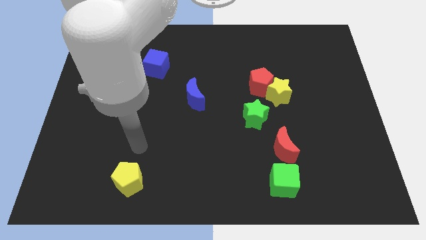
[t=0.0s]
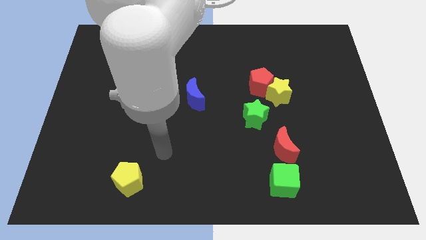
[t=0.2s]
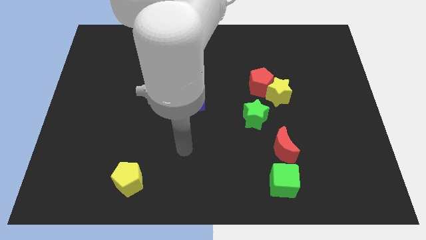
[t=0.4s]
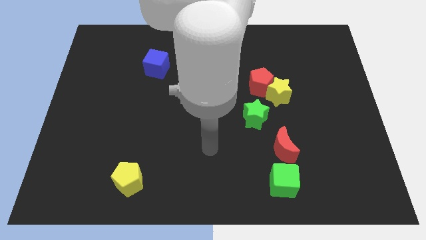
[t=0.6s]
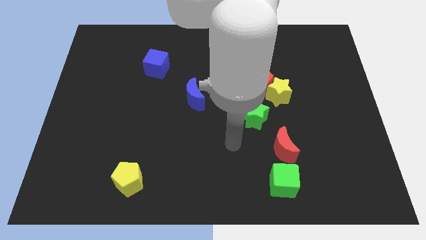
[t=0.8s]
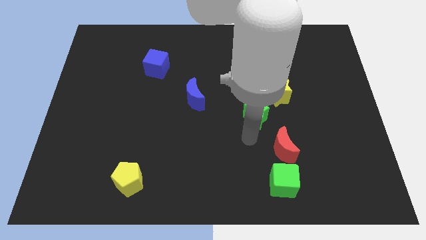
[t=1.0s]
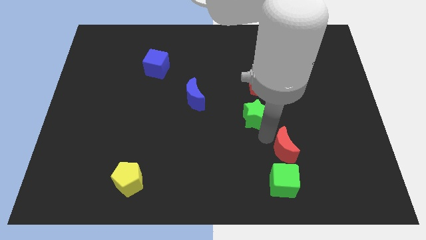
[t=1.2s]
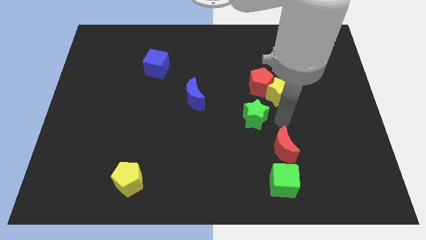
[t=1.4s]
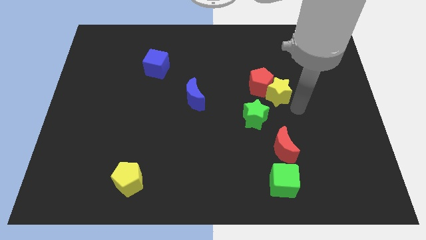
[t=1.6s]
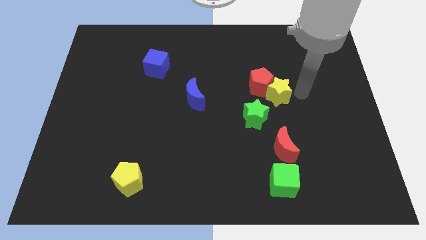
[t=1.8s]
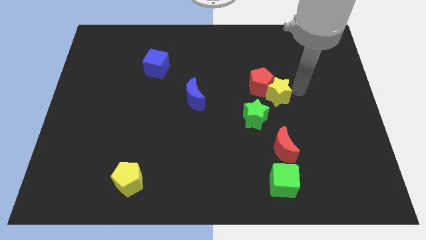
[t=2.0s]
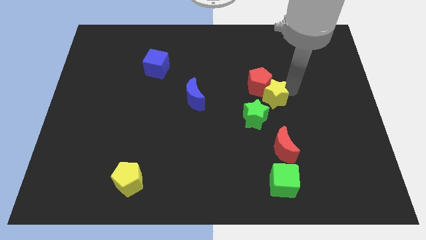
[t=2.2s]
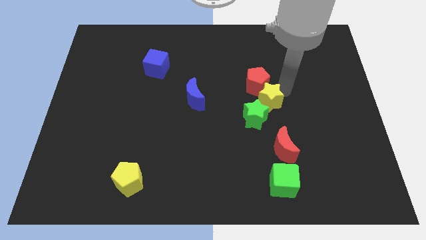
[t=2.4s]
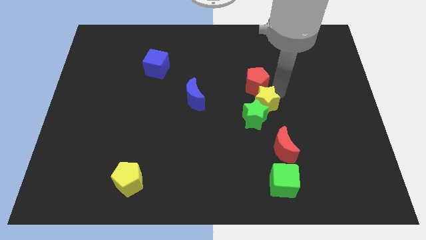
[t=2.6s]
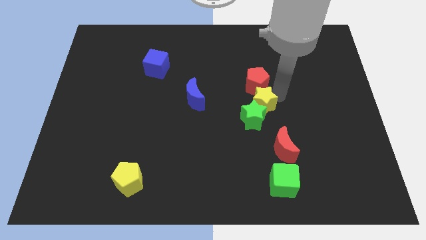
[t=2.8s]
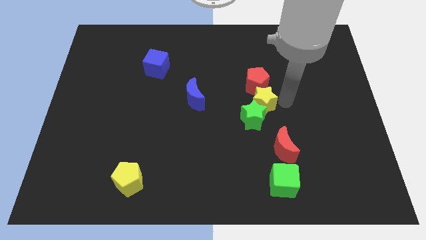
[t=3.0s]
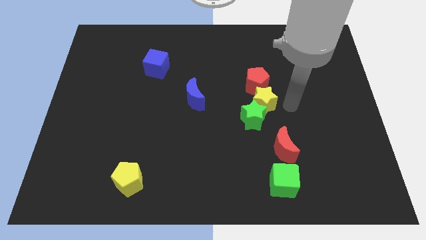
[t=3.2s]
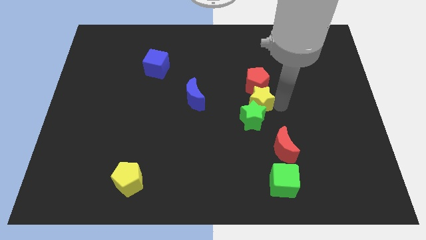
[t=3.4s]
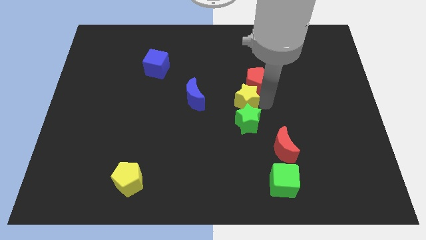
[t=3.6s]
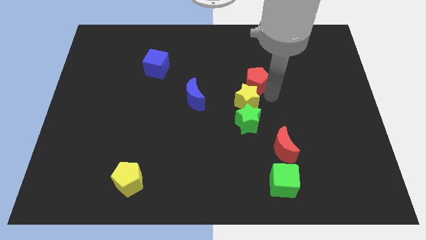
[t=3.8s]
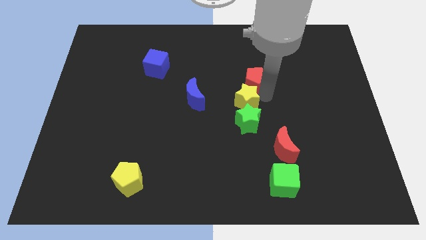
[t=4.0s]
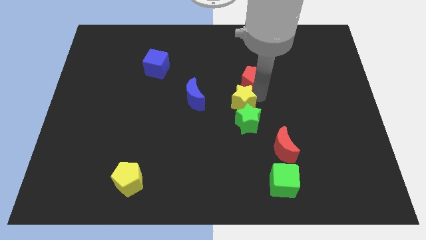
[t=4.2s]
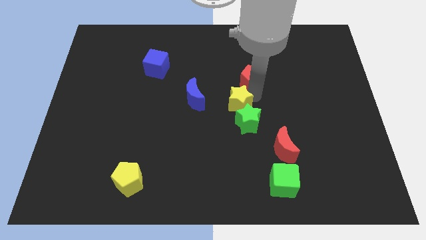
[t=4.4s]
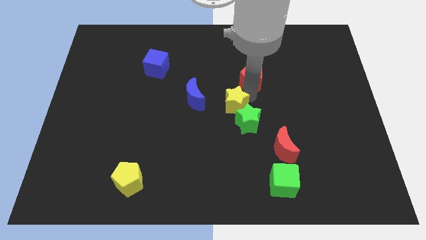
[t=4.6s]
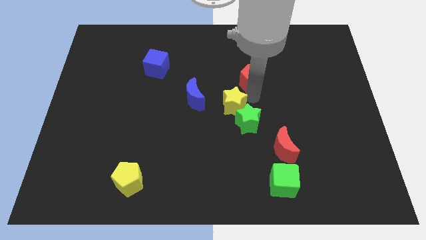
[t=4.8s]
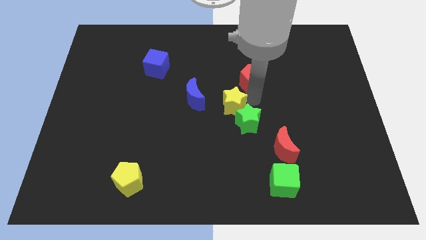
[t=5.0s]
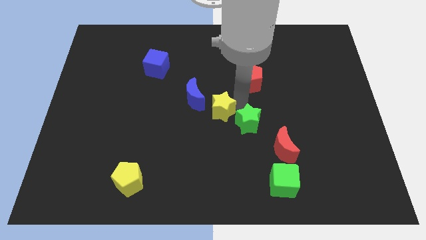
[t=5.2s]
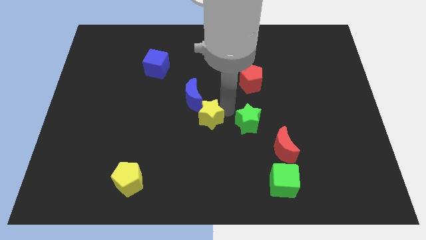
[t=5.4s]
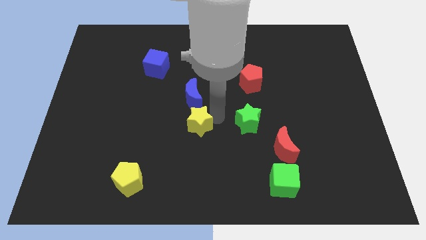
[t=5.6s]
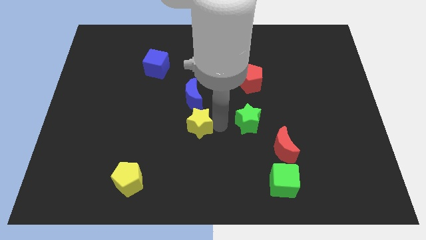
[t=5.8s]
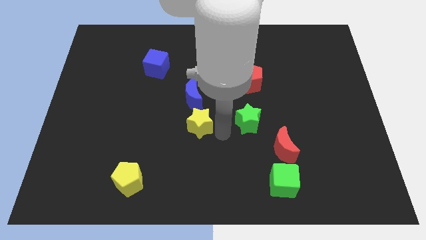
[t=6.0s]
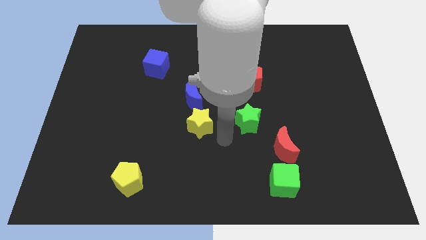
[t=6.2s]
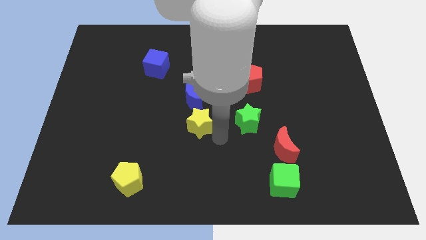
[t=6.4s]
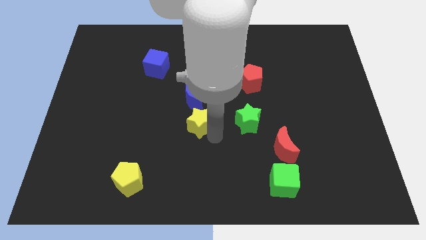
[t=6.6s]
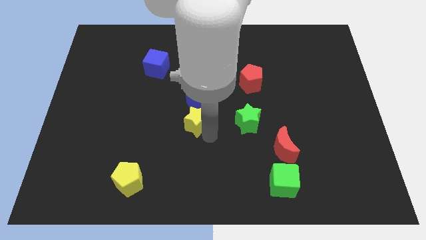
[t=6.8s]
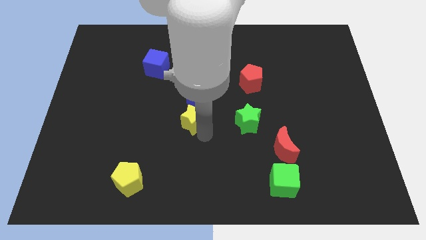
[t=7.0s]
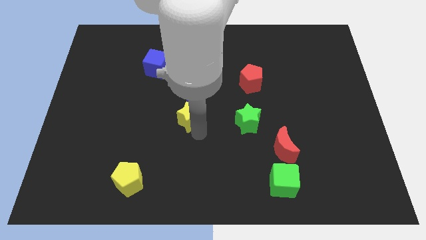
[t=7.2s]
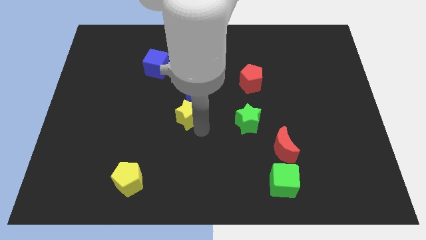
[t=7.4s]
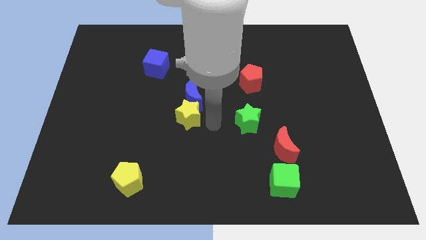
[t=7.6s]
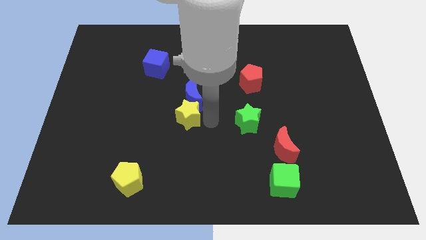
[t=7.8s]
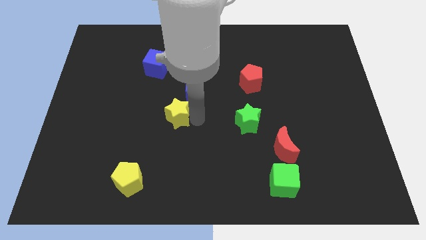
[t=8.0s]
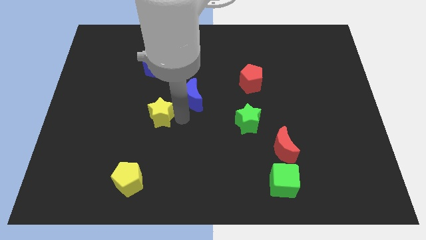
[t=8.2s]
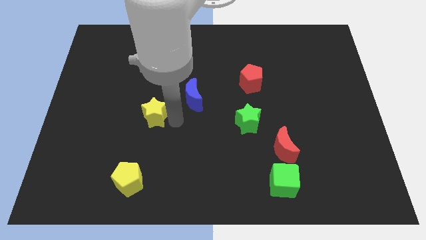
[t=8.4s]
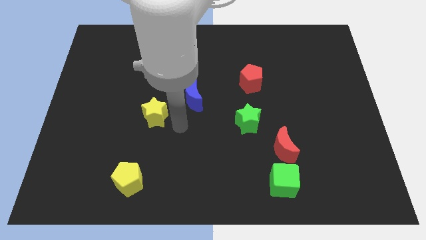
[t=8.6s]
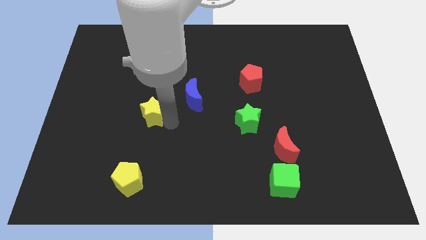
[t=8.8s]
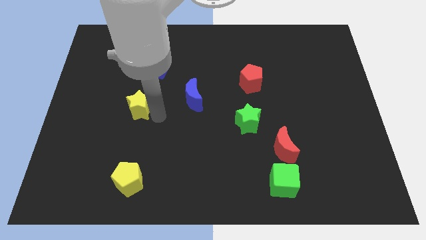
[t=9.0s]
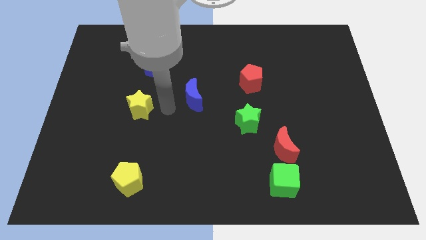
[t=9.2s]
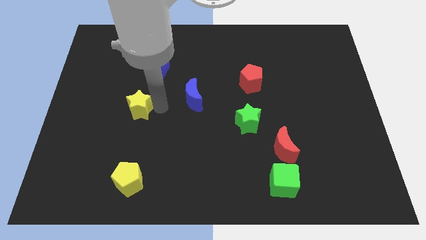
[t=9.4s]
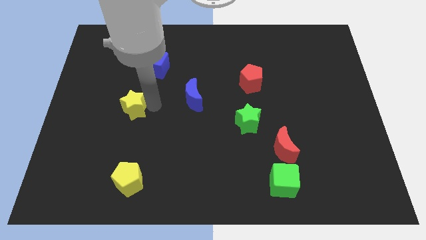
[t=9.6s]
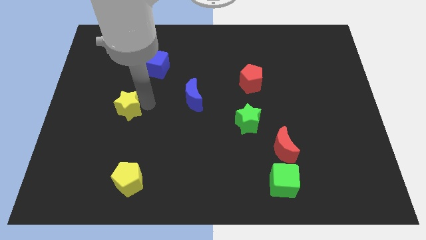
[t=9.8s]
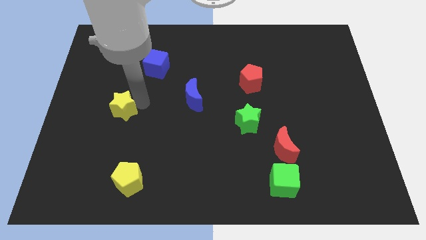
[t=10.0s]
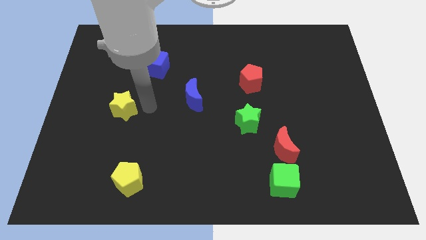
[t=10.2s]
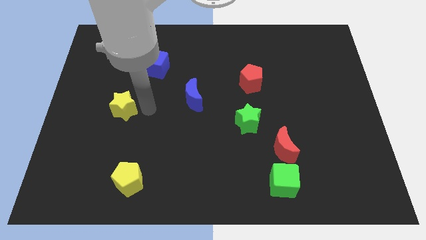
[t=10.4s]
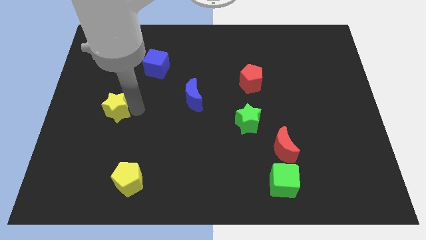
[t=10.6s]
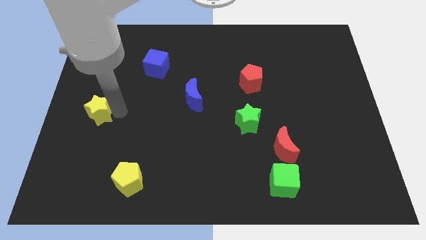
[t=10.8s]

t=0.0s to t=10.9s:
push the yellow star to the left side

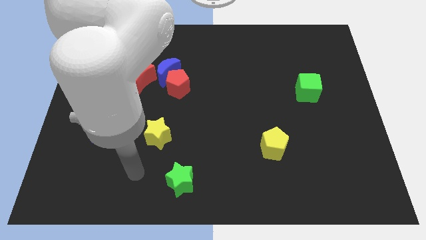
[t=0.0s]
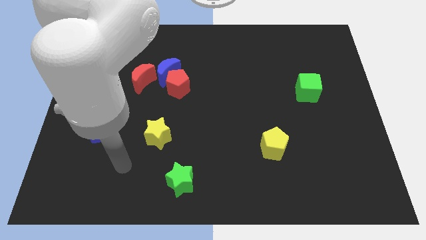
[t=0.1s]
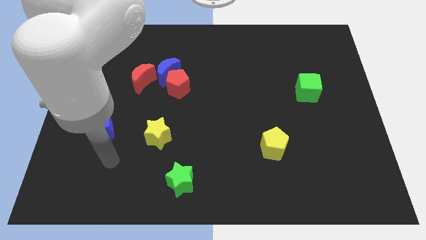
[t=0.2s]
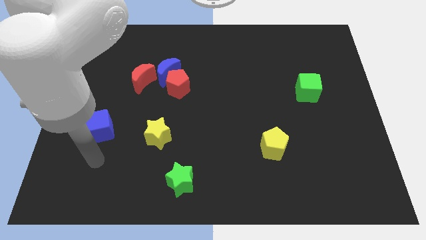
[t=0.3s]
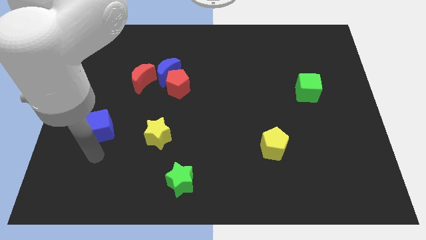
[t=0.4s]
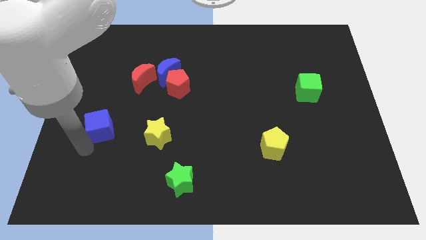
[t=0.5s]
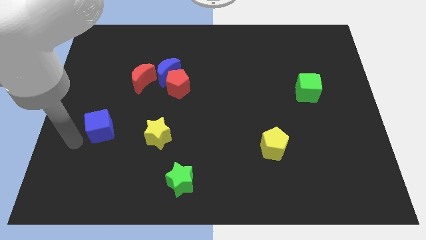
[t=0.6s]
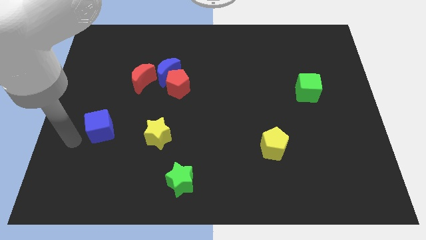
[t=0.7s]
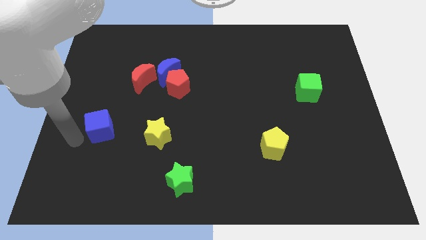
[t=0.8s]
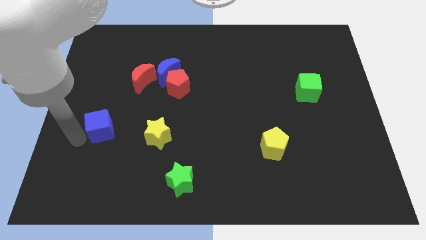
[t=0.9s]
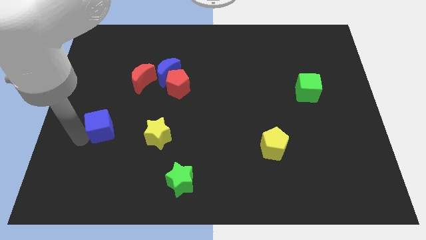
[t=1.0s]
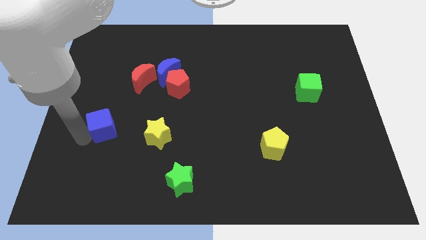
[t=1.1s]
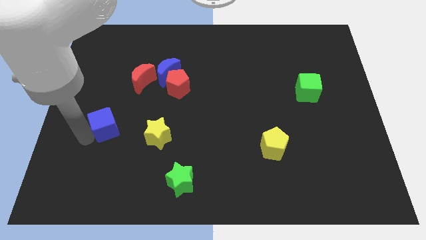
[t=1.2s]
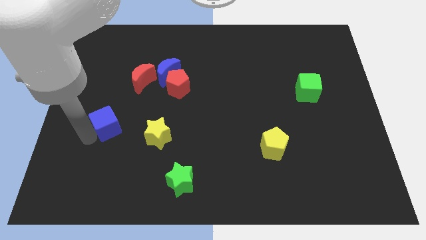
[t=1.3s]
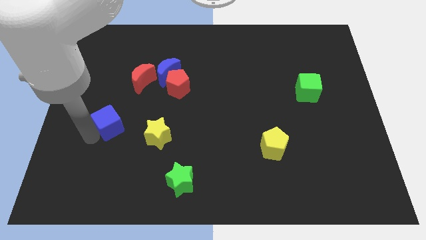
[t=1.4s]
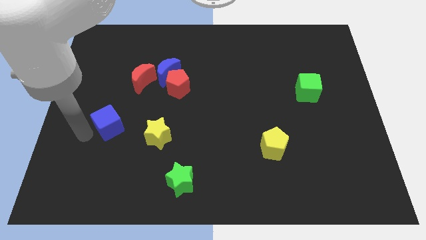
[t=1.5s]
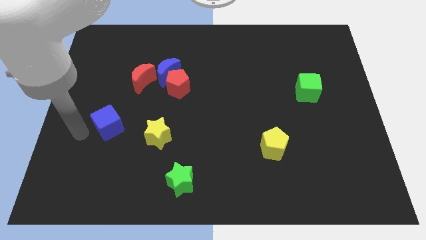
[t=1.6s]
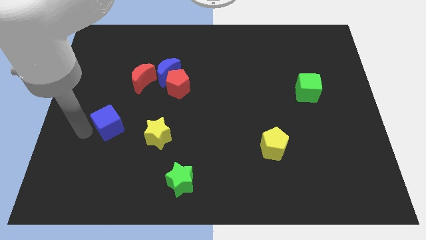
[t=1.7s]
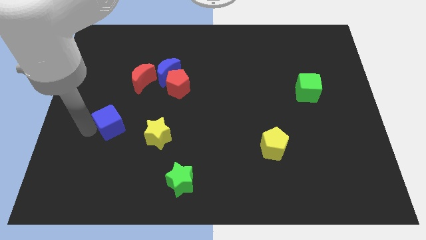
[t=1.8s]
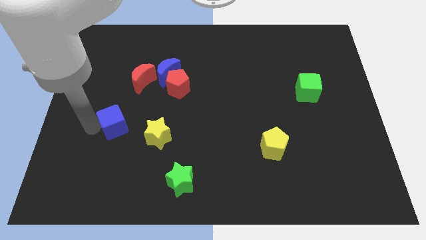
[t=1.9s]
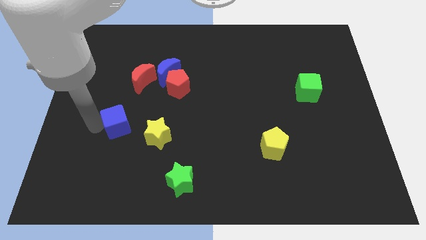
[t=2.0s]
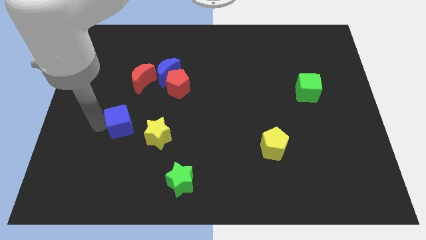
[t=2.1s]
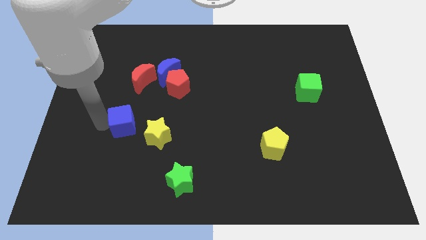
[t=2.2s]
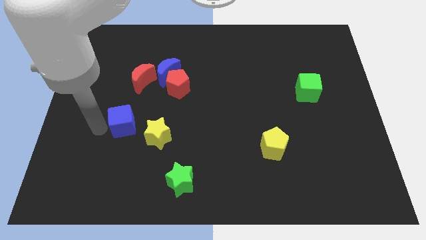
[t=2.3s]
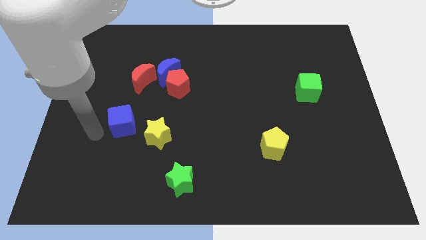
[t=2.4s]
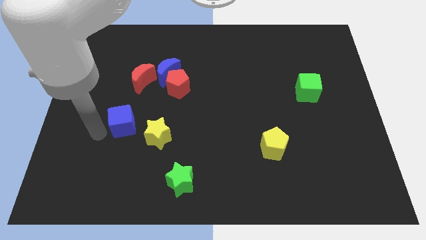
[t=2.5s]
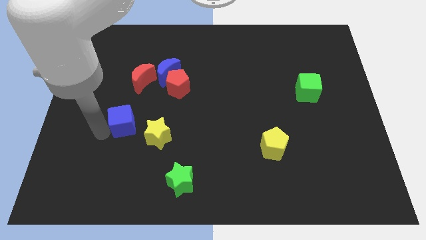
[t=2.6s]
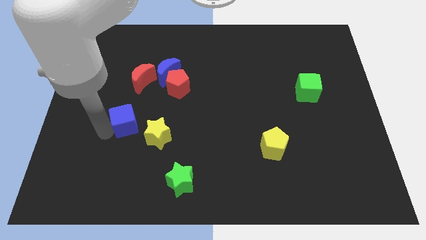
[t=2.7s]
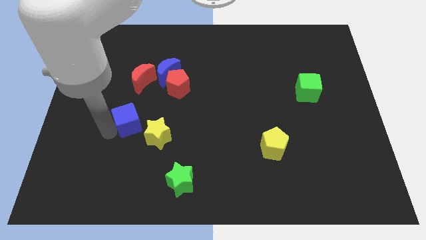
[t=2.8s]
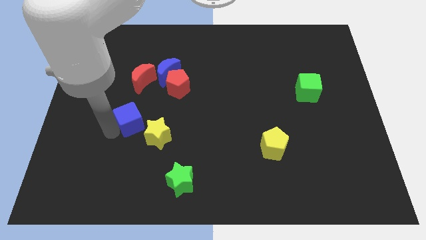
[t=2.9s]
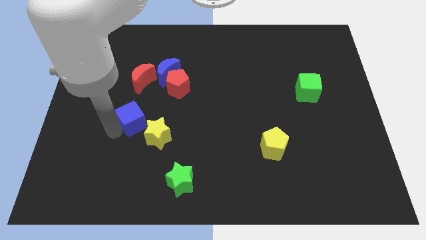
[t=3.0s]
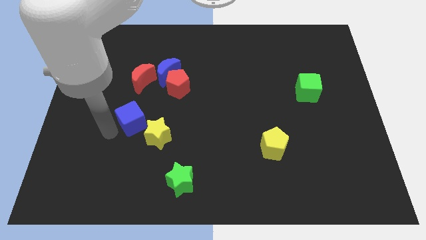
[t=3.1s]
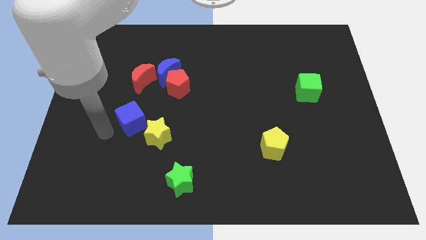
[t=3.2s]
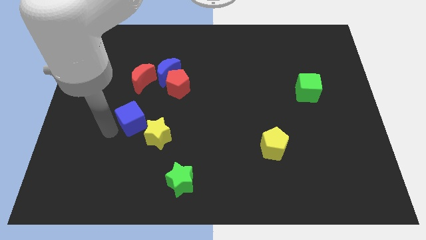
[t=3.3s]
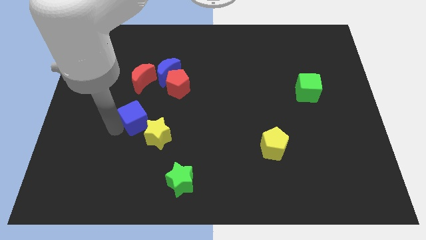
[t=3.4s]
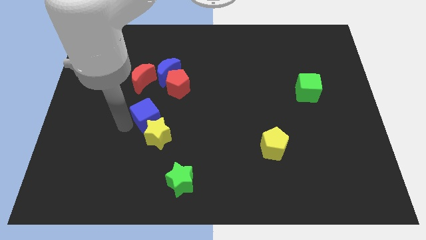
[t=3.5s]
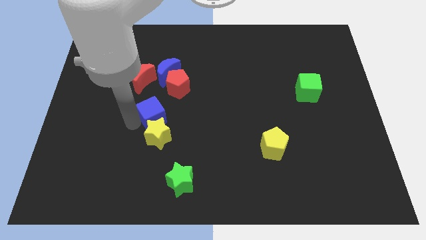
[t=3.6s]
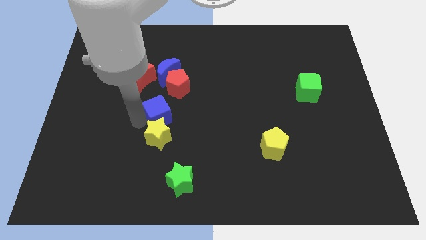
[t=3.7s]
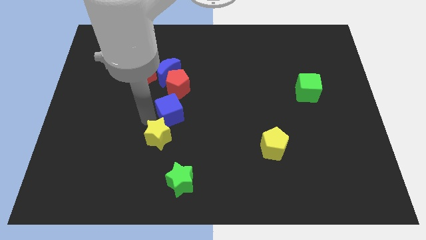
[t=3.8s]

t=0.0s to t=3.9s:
put the blue cube to the center
